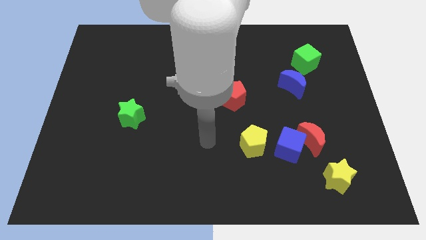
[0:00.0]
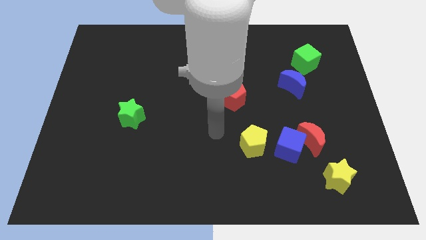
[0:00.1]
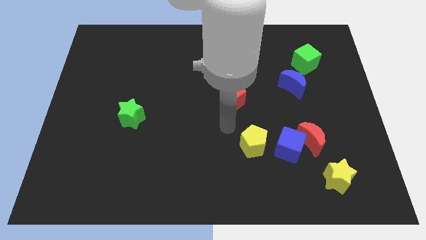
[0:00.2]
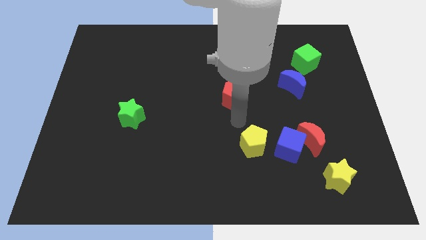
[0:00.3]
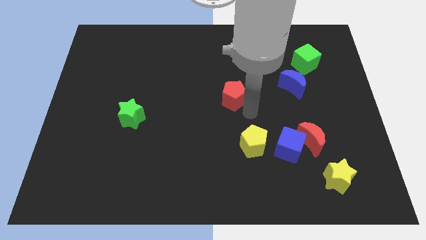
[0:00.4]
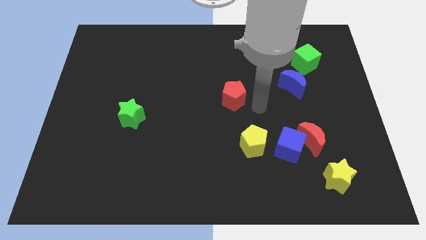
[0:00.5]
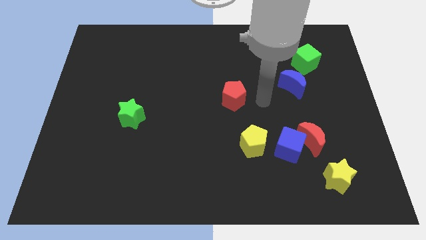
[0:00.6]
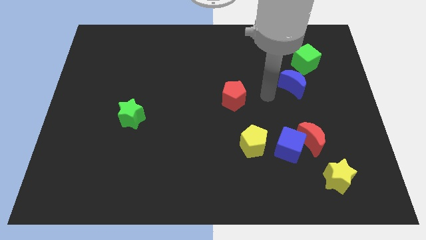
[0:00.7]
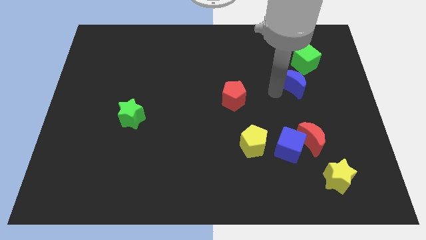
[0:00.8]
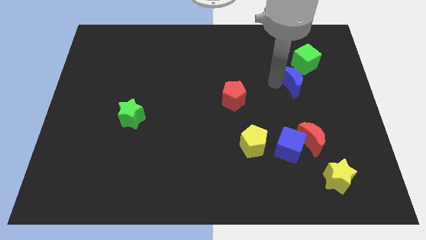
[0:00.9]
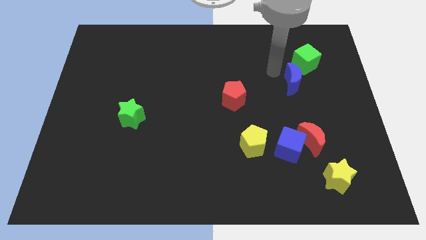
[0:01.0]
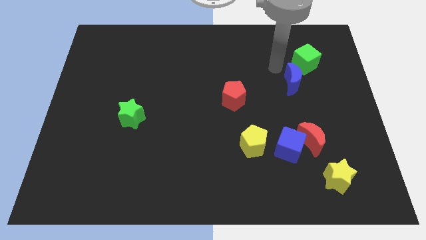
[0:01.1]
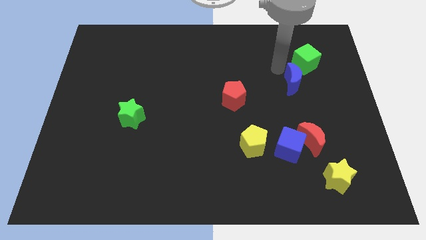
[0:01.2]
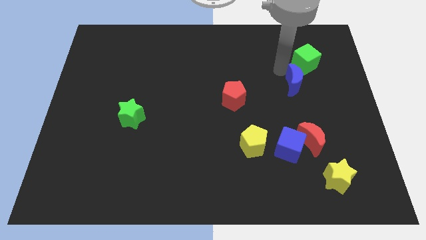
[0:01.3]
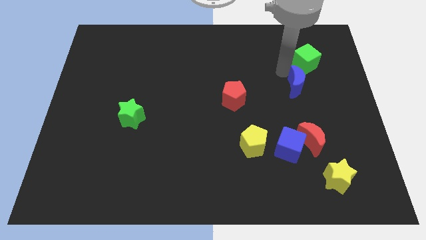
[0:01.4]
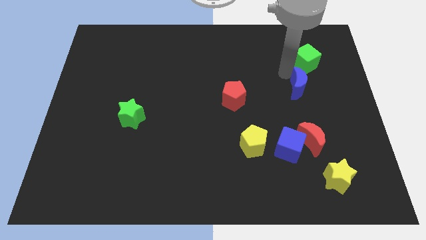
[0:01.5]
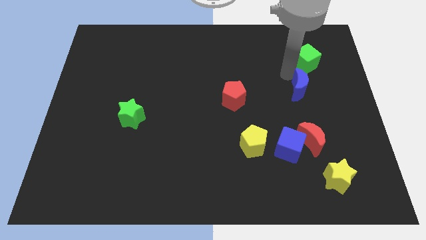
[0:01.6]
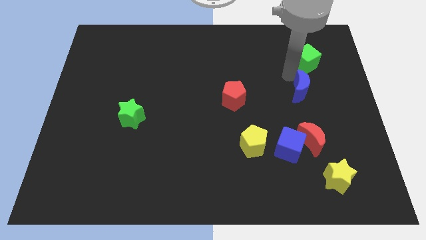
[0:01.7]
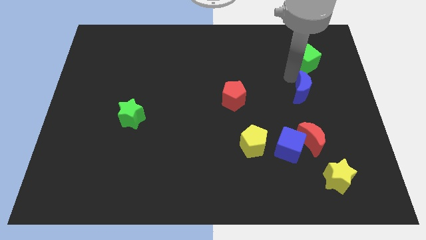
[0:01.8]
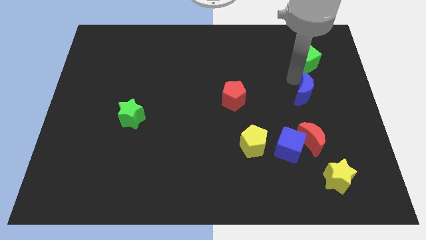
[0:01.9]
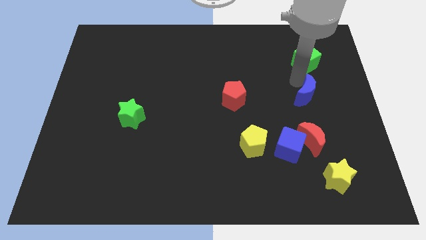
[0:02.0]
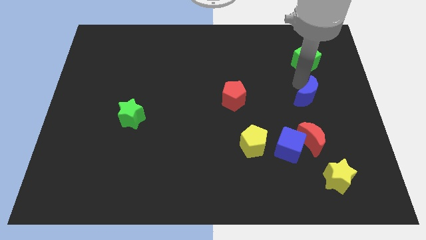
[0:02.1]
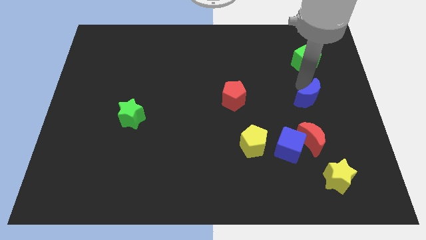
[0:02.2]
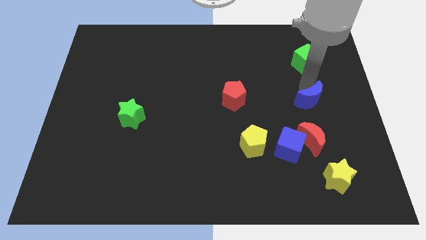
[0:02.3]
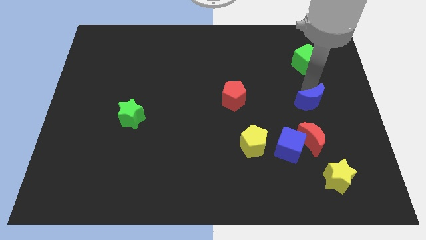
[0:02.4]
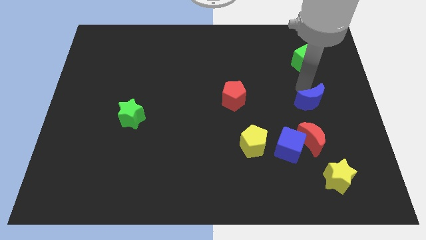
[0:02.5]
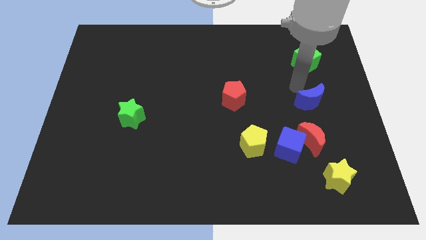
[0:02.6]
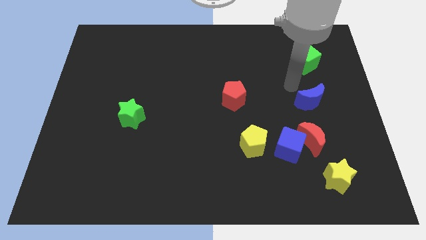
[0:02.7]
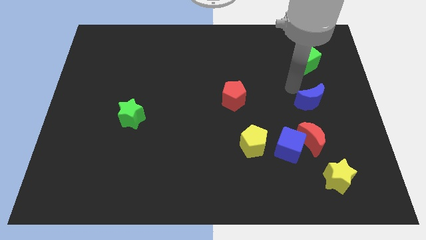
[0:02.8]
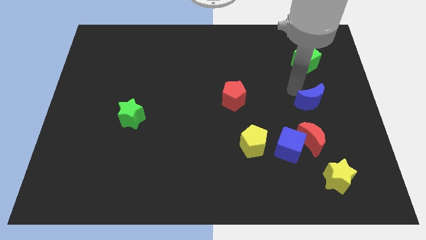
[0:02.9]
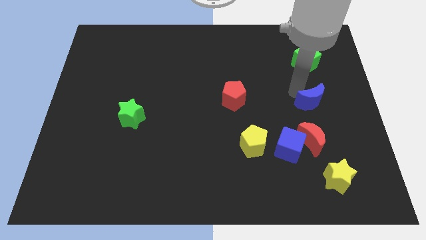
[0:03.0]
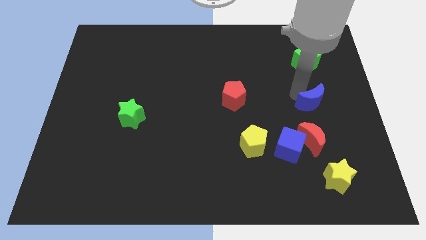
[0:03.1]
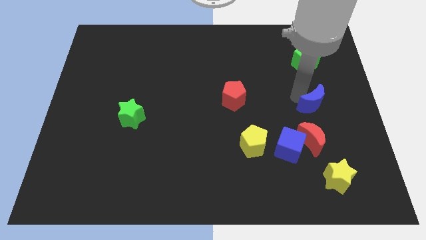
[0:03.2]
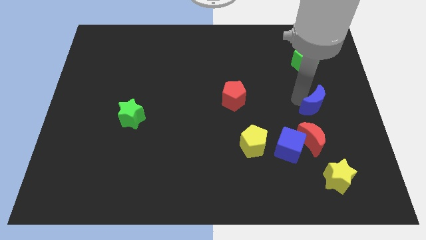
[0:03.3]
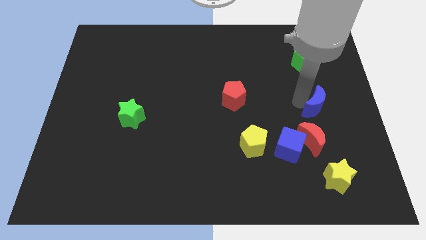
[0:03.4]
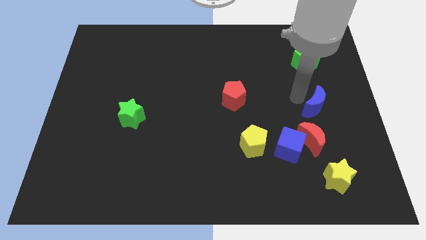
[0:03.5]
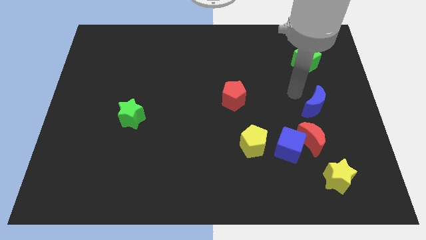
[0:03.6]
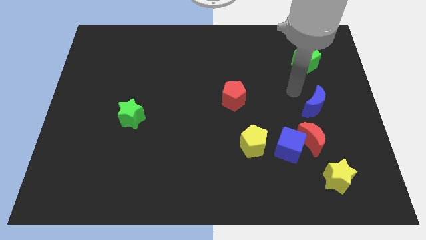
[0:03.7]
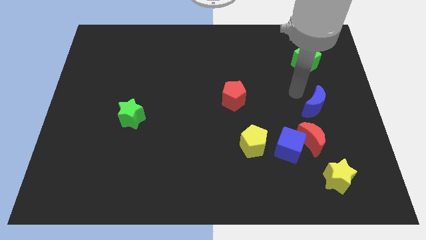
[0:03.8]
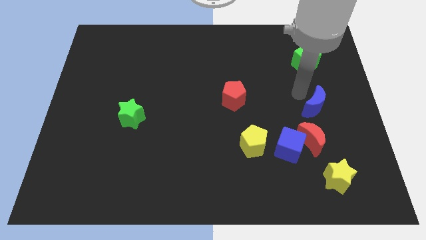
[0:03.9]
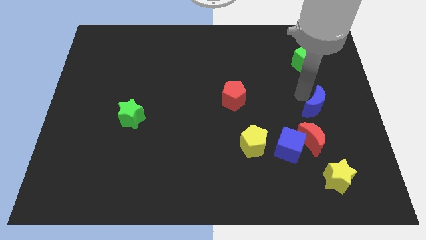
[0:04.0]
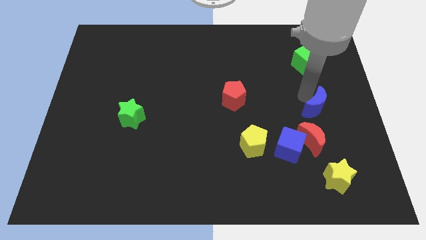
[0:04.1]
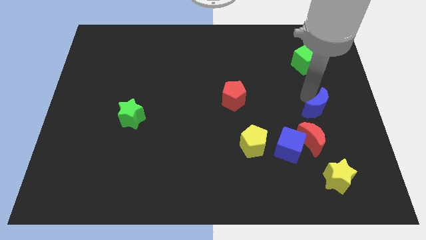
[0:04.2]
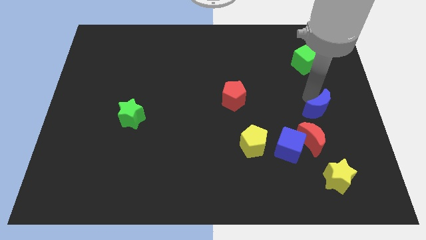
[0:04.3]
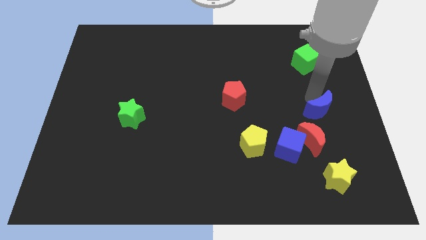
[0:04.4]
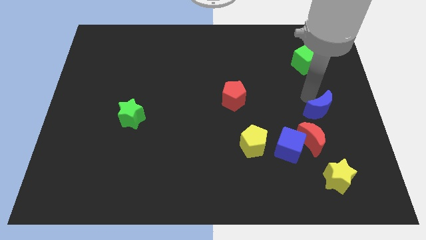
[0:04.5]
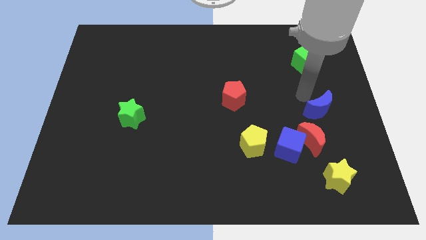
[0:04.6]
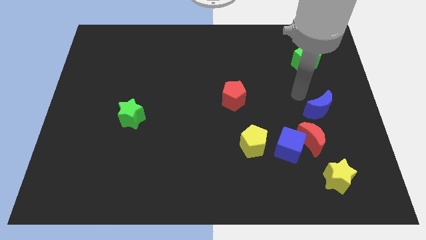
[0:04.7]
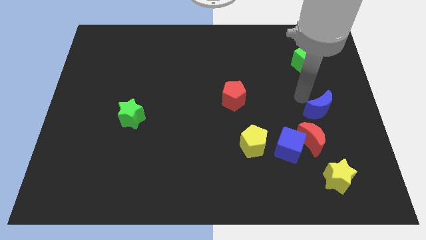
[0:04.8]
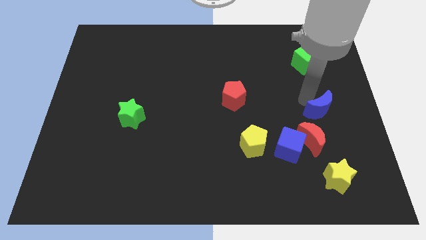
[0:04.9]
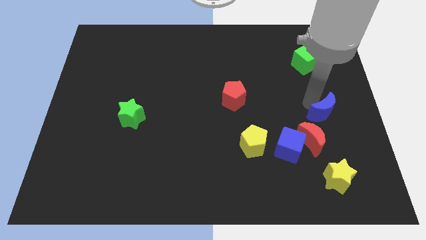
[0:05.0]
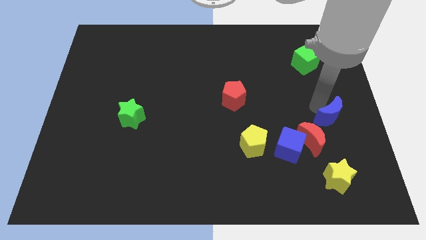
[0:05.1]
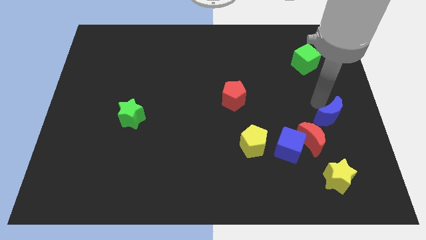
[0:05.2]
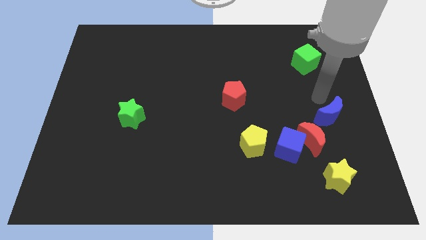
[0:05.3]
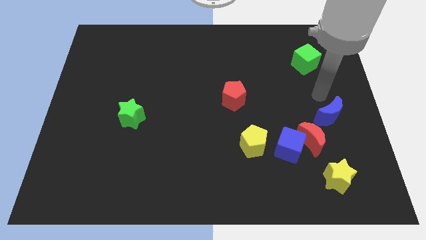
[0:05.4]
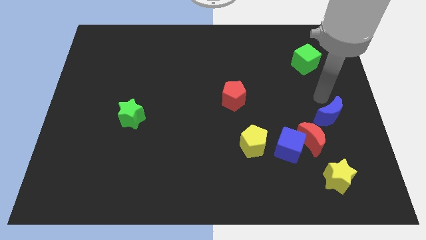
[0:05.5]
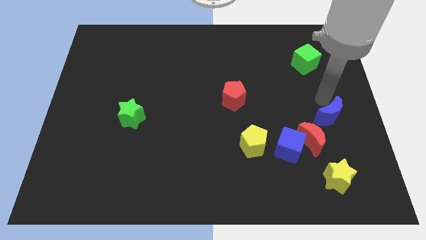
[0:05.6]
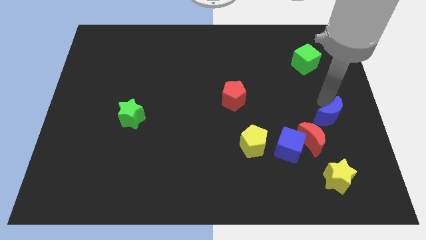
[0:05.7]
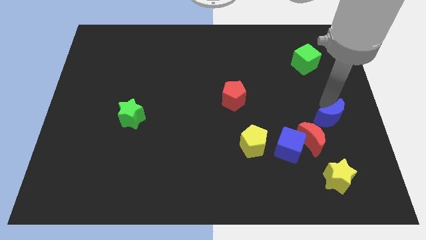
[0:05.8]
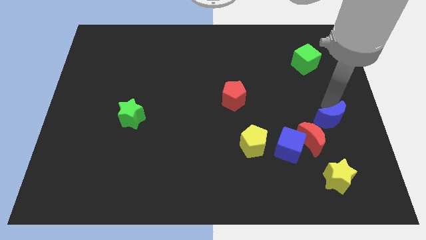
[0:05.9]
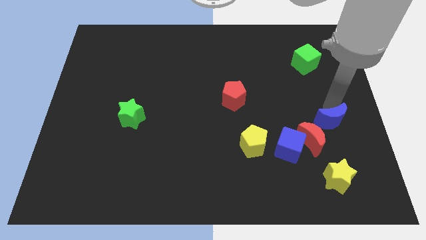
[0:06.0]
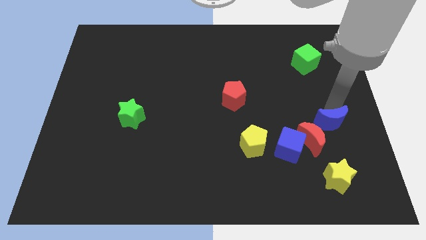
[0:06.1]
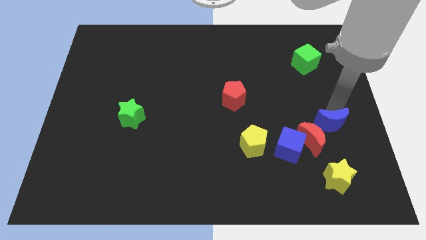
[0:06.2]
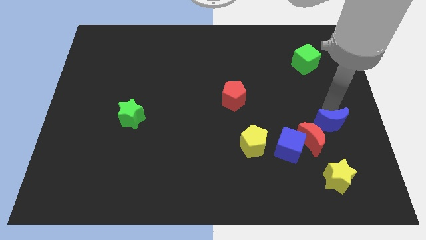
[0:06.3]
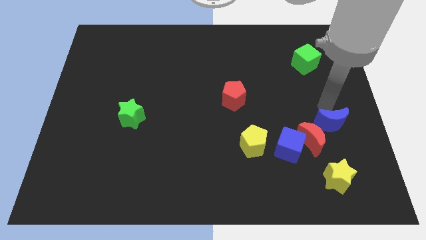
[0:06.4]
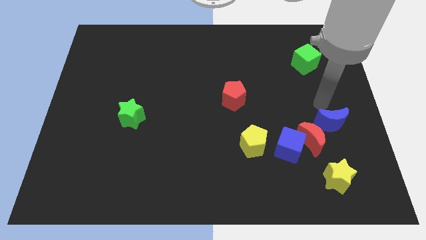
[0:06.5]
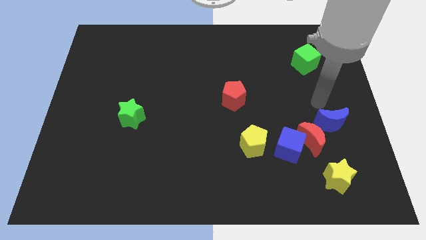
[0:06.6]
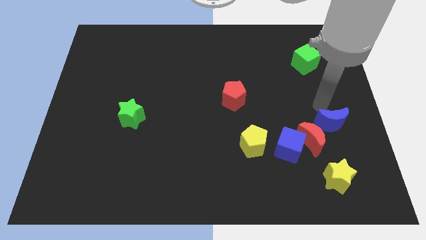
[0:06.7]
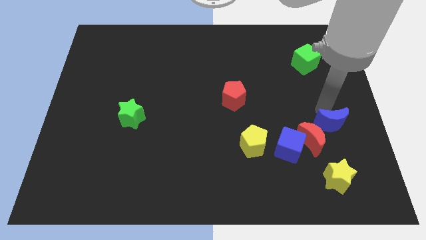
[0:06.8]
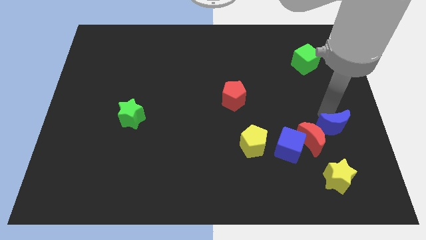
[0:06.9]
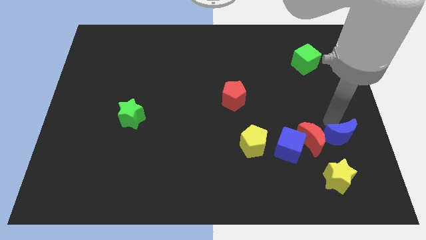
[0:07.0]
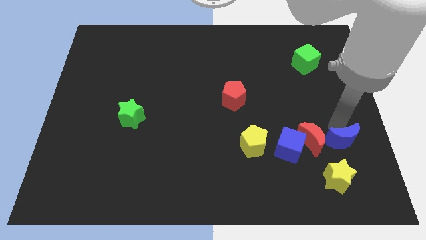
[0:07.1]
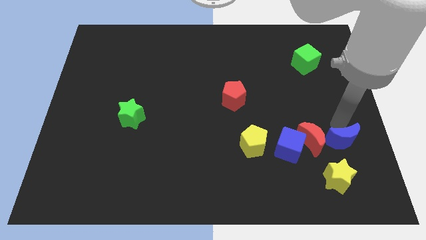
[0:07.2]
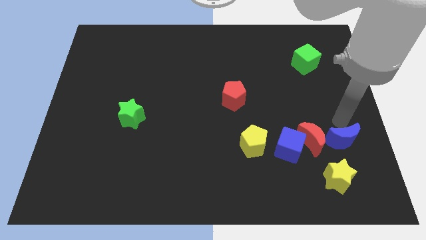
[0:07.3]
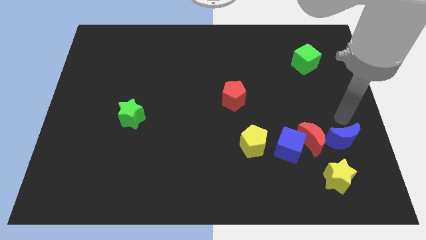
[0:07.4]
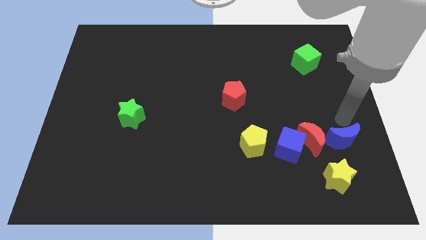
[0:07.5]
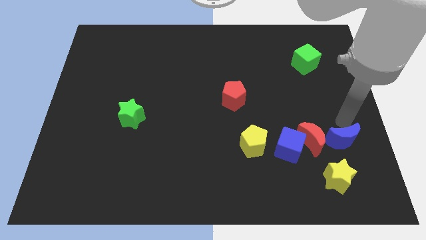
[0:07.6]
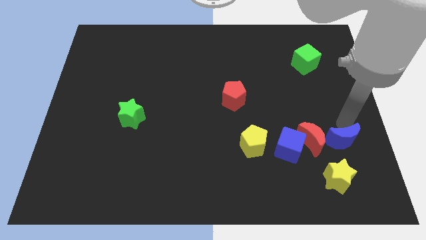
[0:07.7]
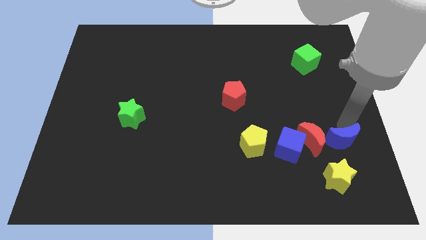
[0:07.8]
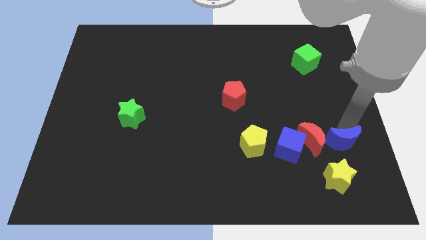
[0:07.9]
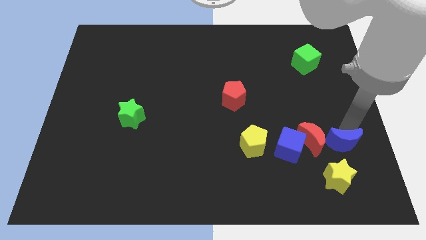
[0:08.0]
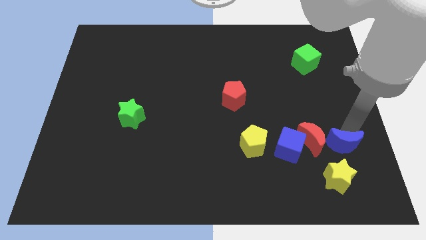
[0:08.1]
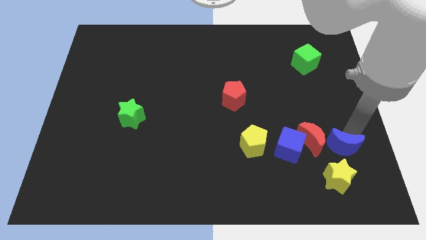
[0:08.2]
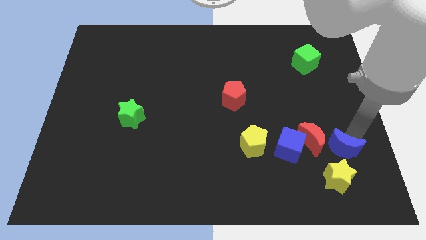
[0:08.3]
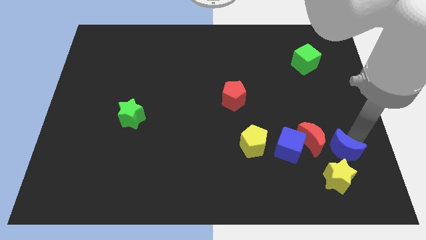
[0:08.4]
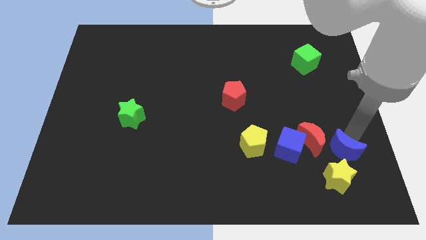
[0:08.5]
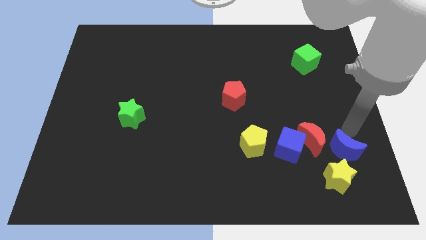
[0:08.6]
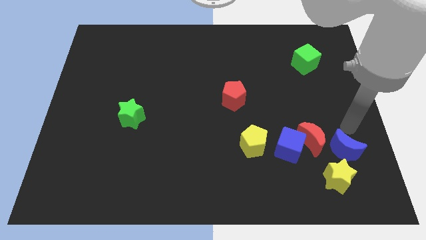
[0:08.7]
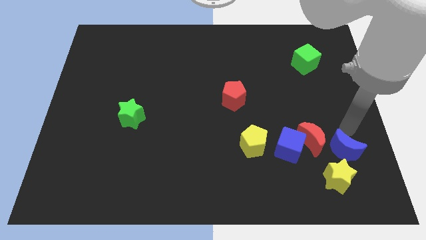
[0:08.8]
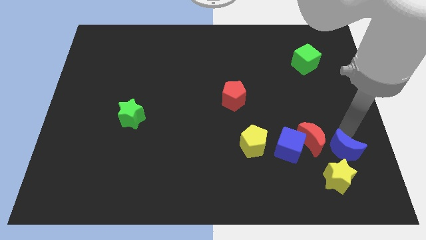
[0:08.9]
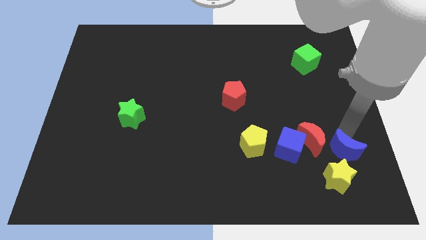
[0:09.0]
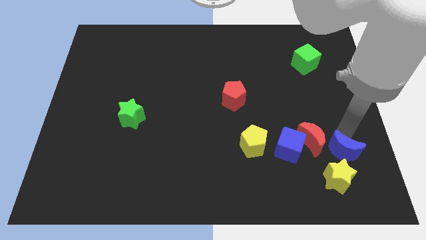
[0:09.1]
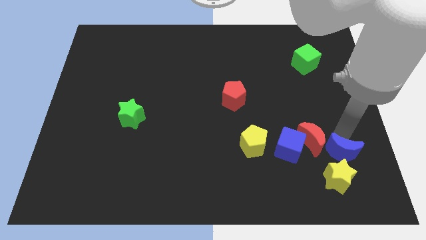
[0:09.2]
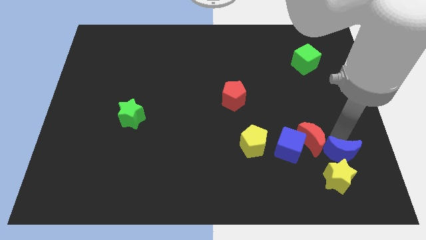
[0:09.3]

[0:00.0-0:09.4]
slide the blue moon towards the yellow star
